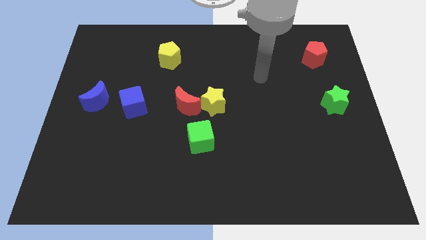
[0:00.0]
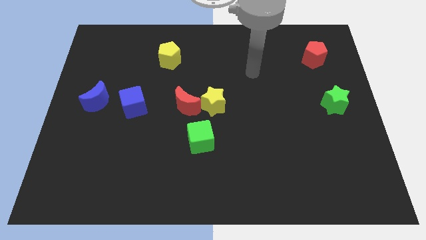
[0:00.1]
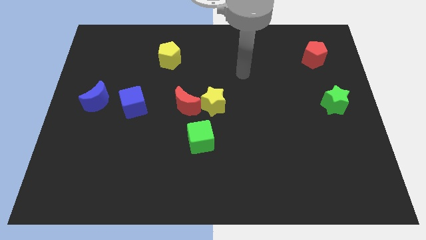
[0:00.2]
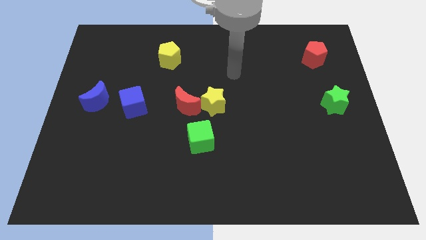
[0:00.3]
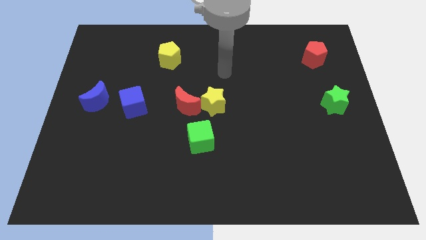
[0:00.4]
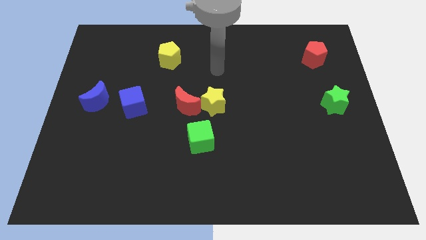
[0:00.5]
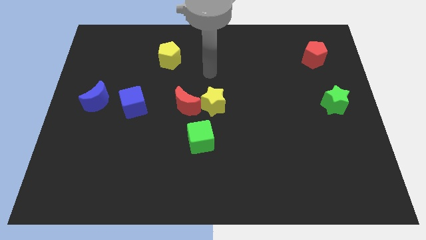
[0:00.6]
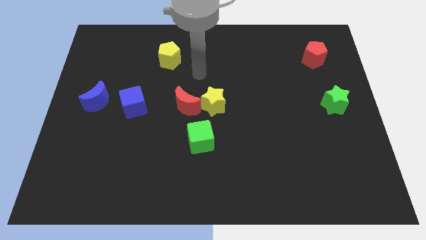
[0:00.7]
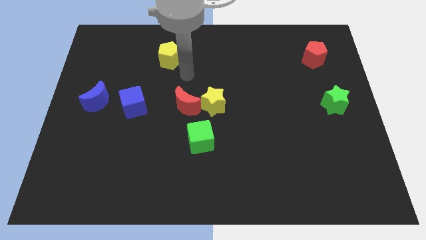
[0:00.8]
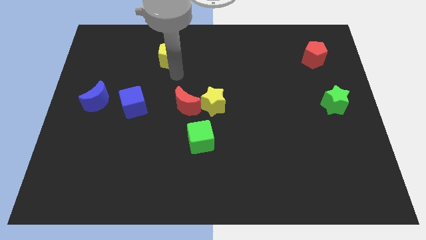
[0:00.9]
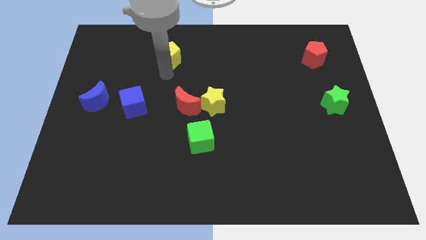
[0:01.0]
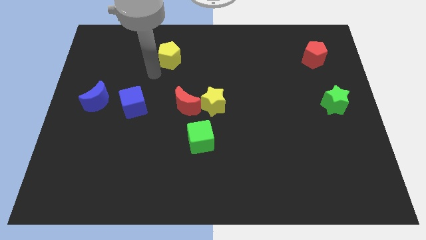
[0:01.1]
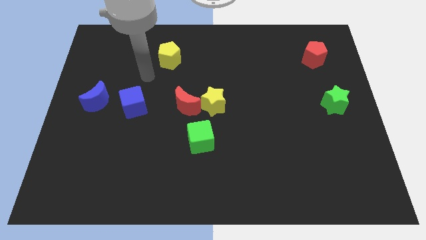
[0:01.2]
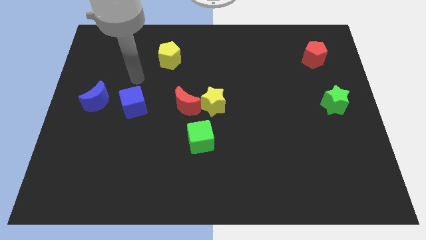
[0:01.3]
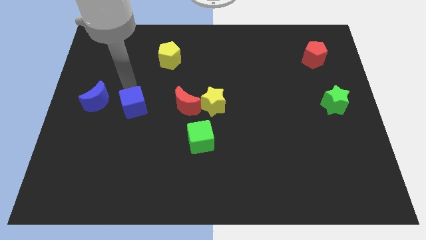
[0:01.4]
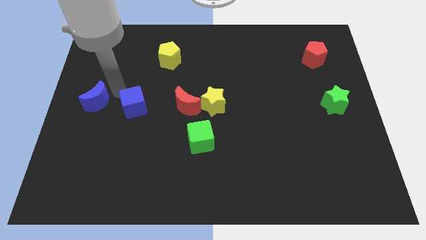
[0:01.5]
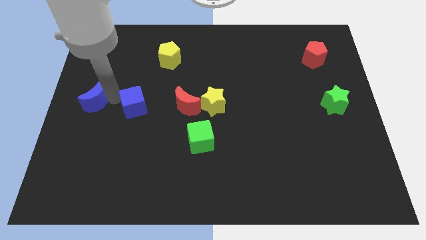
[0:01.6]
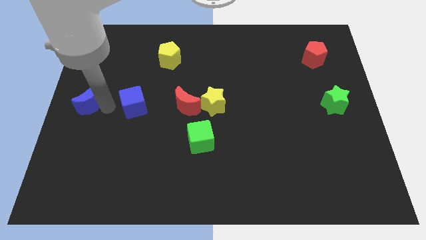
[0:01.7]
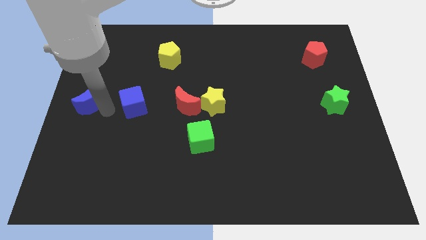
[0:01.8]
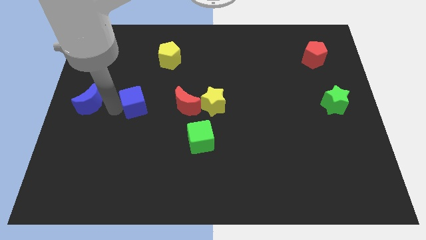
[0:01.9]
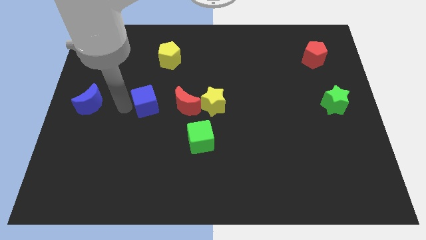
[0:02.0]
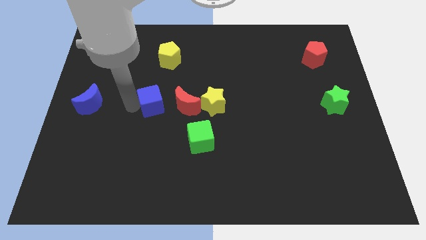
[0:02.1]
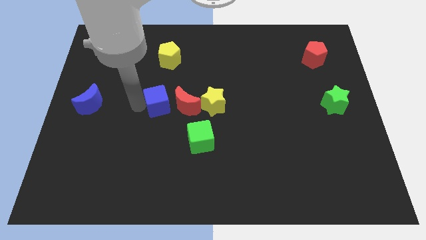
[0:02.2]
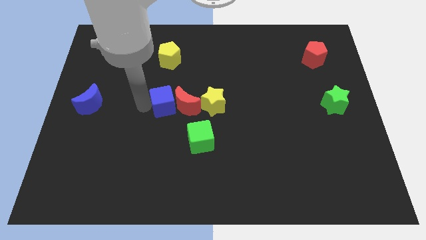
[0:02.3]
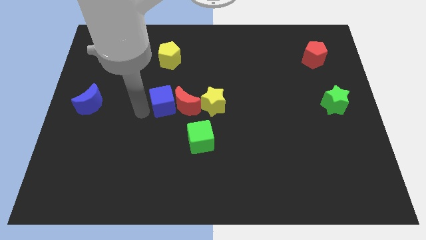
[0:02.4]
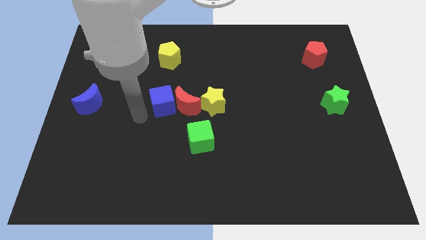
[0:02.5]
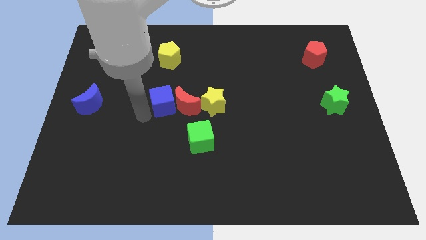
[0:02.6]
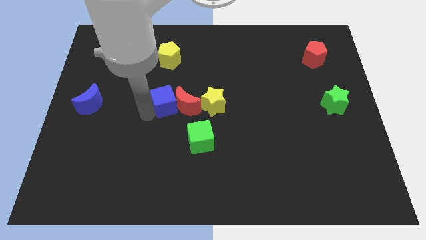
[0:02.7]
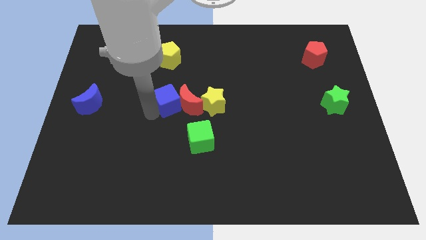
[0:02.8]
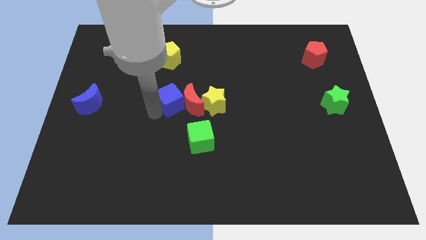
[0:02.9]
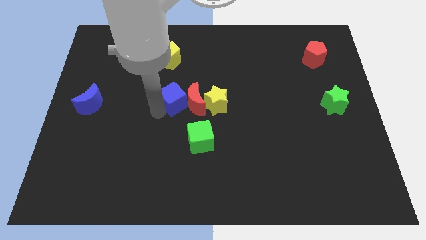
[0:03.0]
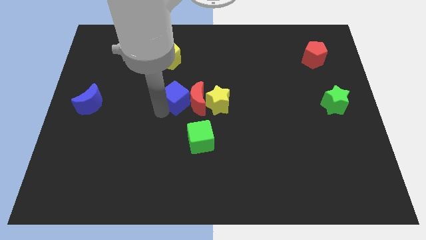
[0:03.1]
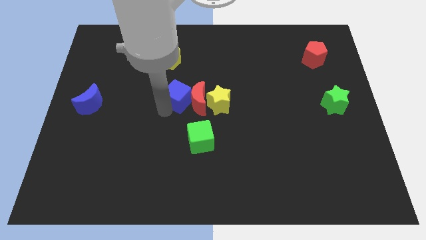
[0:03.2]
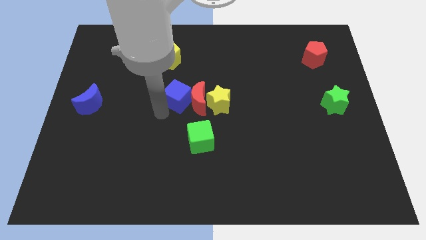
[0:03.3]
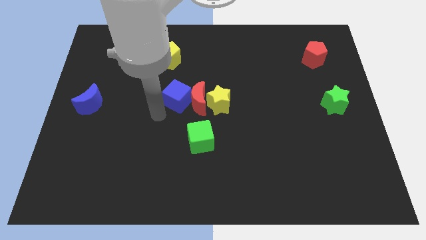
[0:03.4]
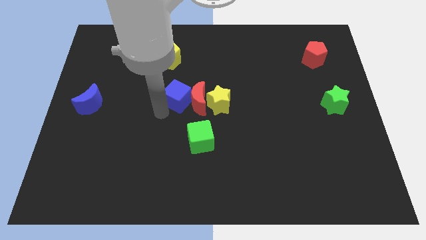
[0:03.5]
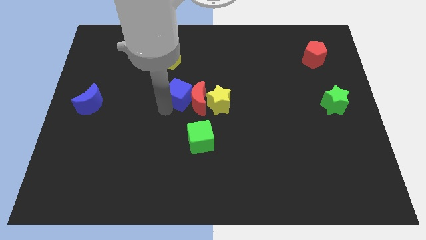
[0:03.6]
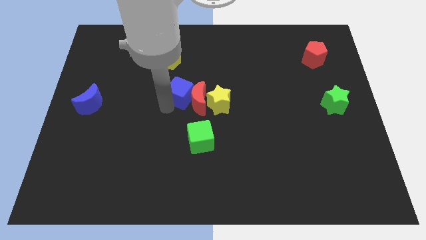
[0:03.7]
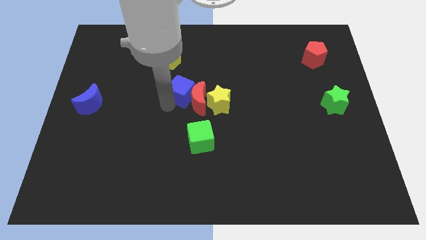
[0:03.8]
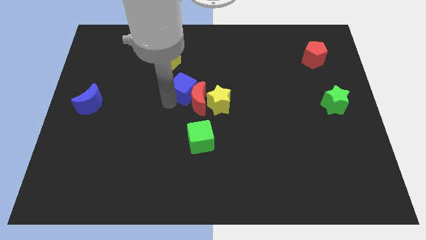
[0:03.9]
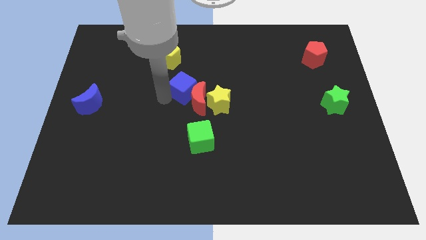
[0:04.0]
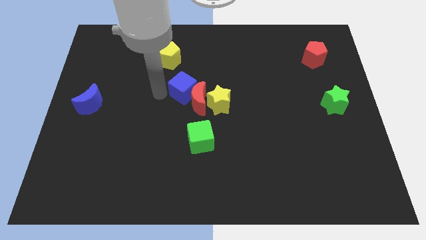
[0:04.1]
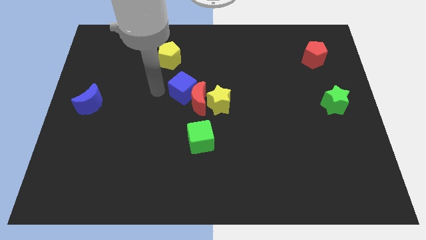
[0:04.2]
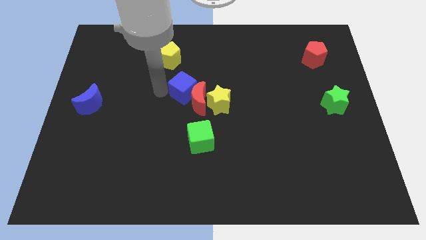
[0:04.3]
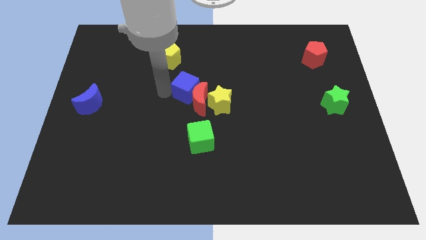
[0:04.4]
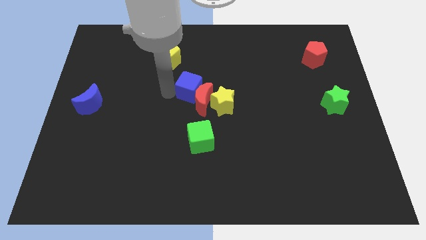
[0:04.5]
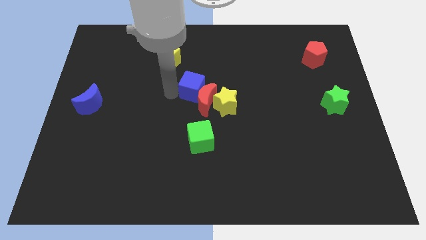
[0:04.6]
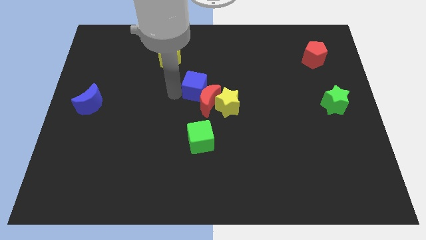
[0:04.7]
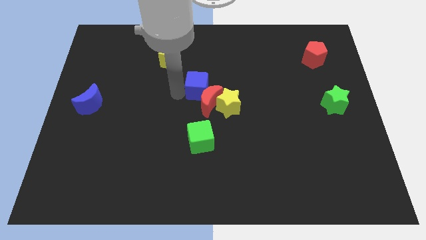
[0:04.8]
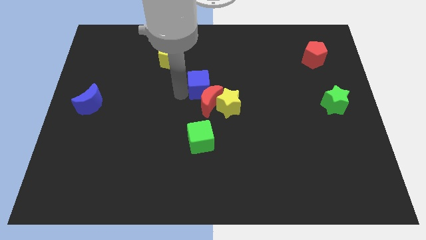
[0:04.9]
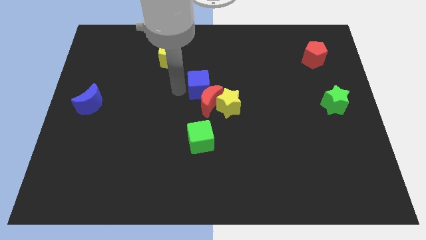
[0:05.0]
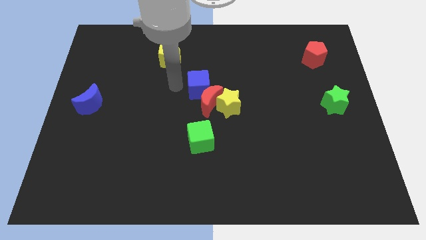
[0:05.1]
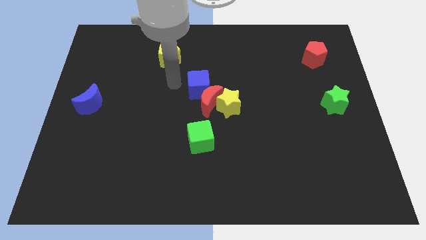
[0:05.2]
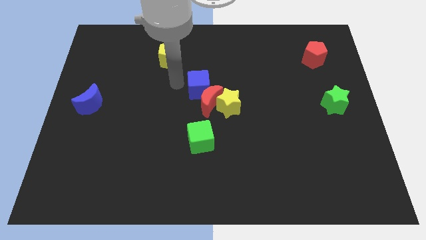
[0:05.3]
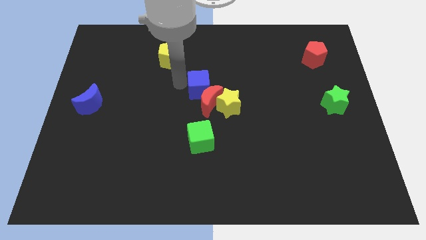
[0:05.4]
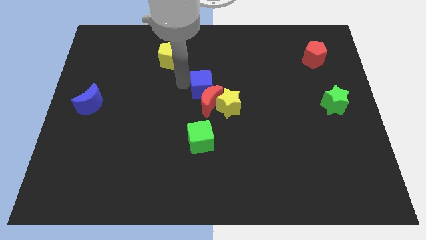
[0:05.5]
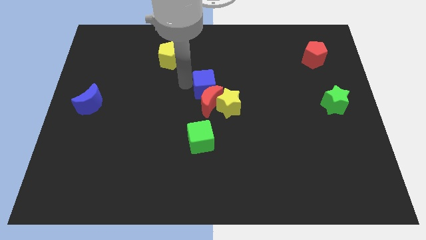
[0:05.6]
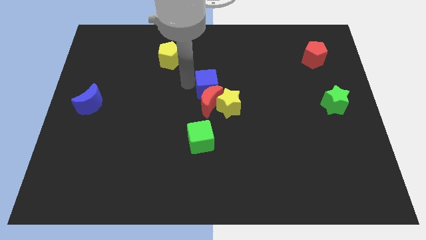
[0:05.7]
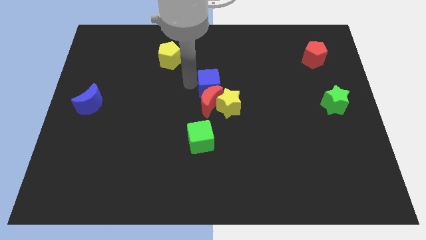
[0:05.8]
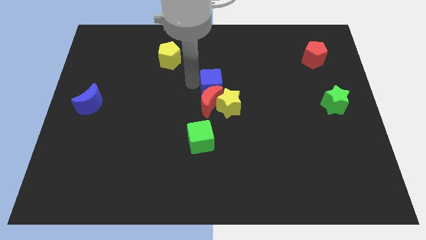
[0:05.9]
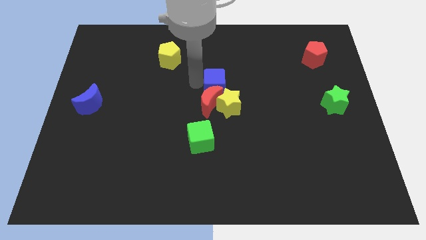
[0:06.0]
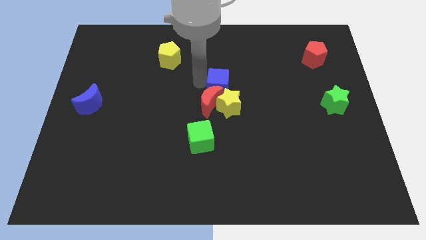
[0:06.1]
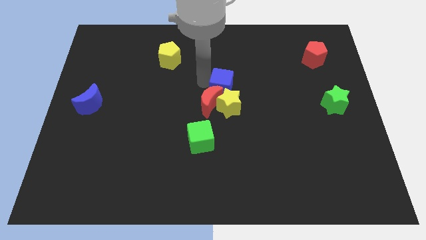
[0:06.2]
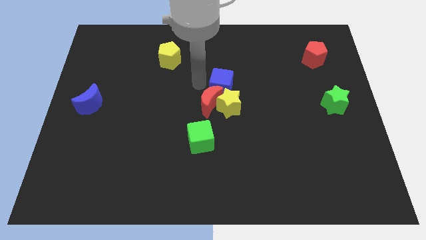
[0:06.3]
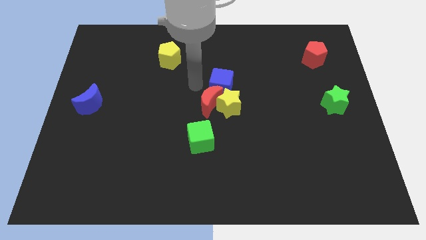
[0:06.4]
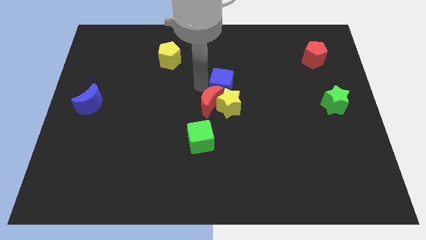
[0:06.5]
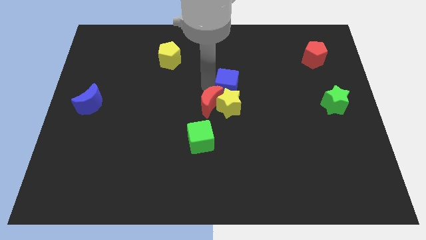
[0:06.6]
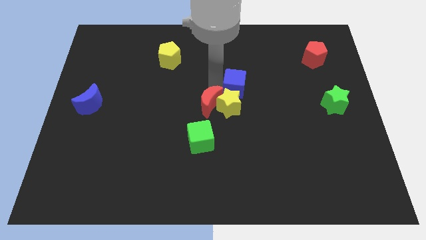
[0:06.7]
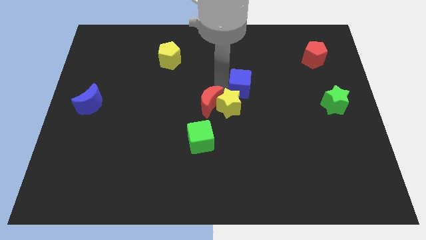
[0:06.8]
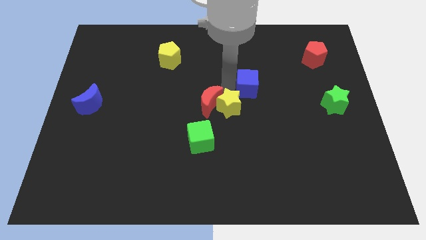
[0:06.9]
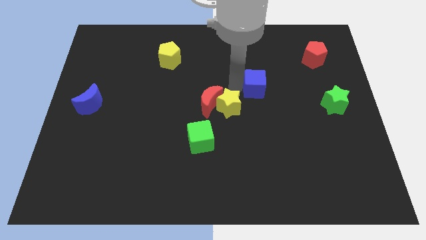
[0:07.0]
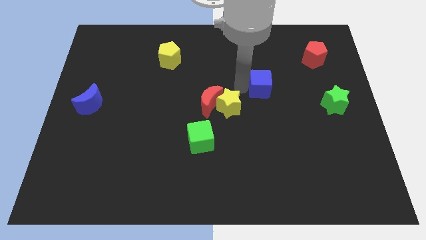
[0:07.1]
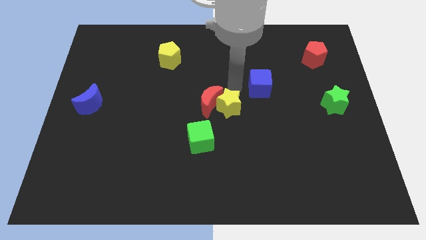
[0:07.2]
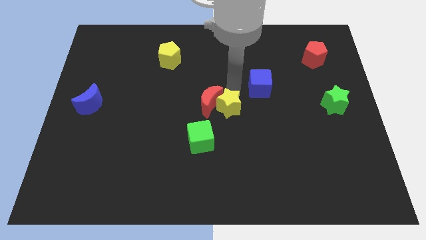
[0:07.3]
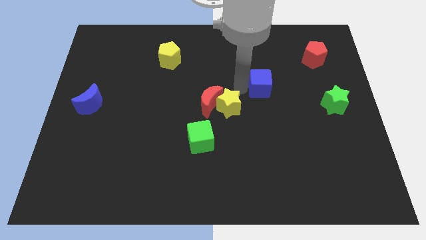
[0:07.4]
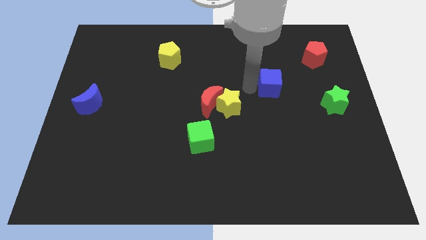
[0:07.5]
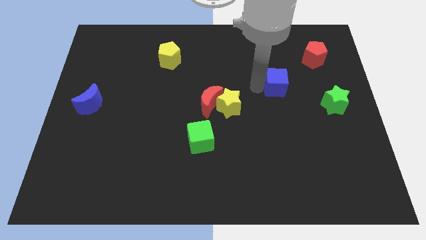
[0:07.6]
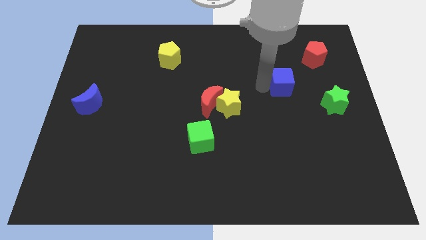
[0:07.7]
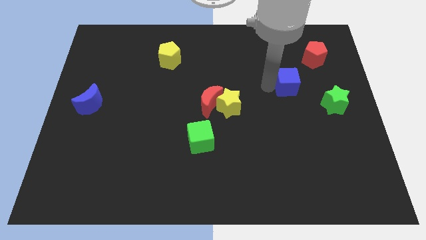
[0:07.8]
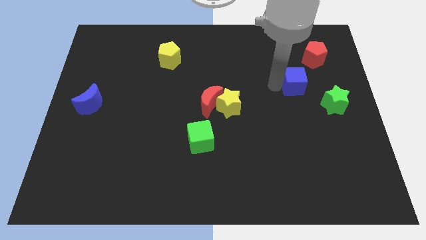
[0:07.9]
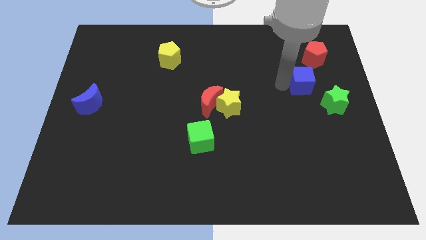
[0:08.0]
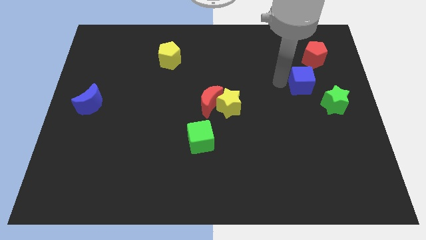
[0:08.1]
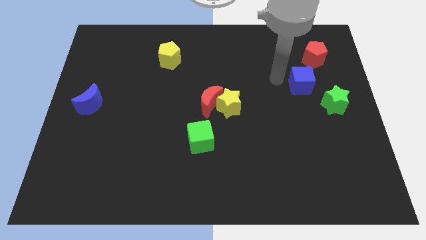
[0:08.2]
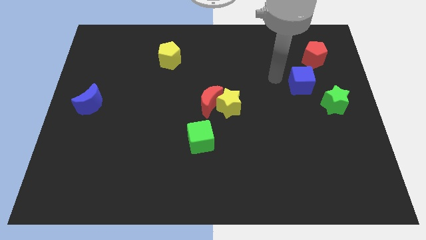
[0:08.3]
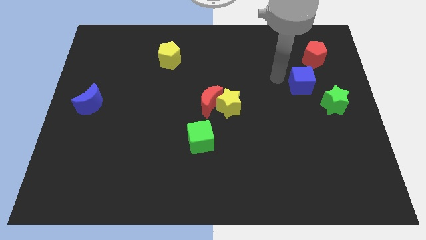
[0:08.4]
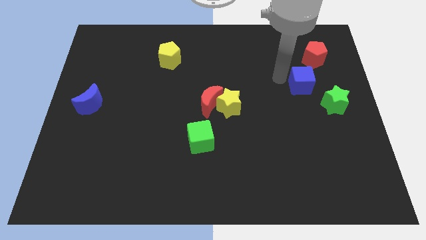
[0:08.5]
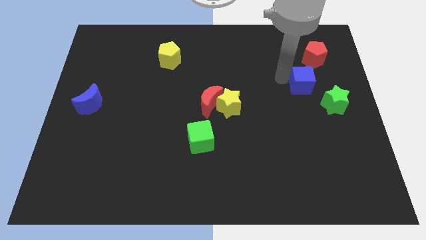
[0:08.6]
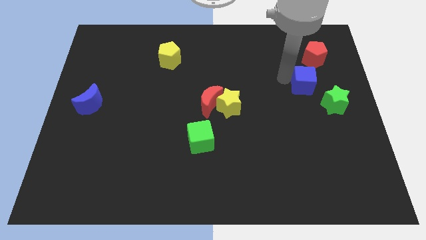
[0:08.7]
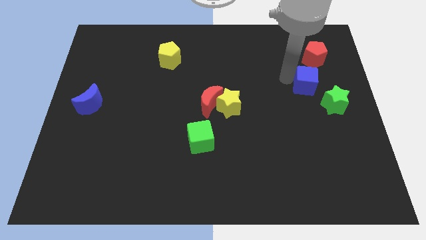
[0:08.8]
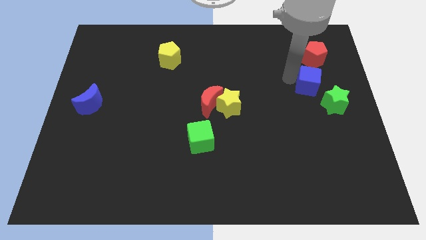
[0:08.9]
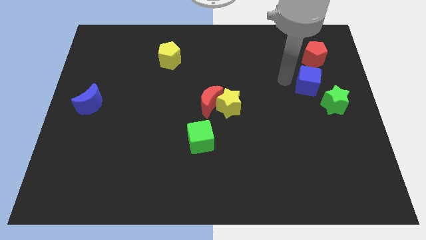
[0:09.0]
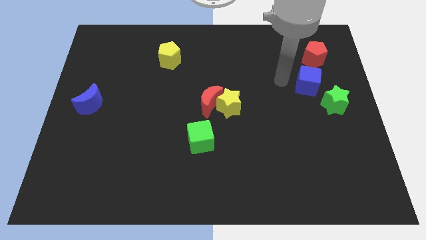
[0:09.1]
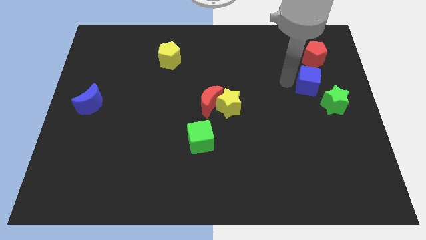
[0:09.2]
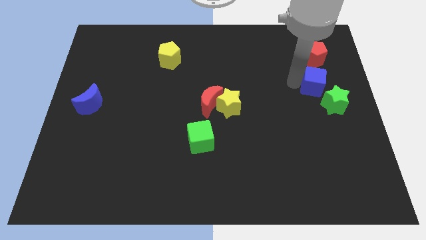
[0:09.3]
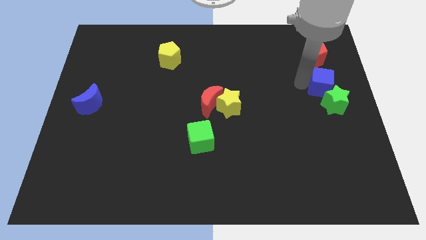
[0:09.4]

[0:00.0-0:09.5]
move the blue cube to the right side of the board
